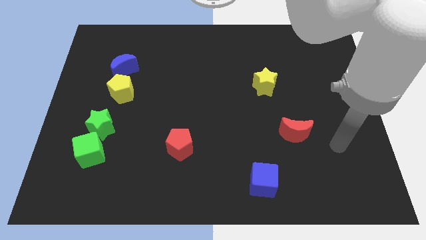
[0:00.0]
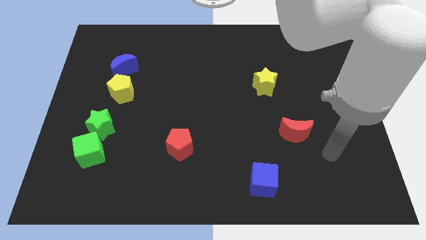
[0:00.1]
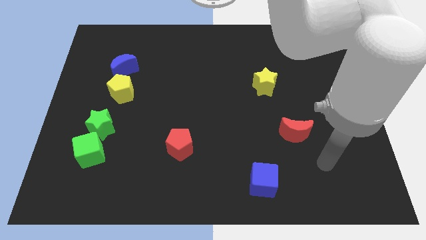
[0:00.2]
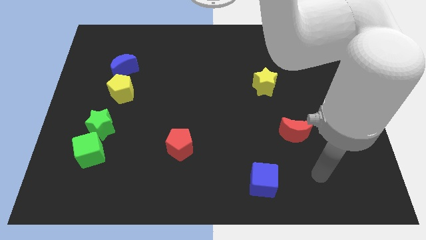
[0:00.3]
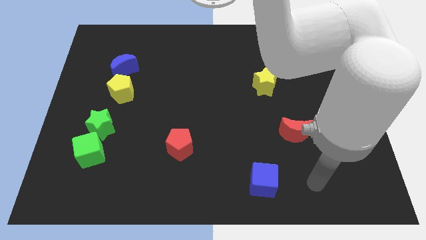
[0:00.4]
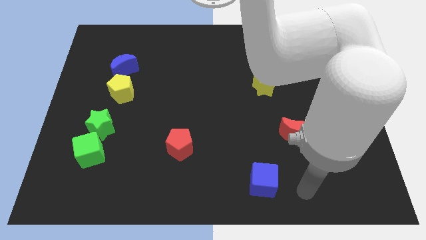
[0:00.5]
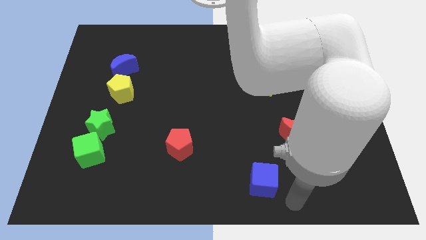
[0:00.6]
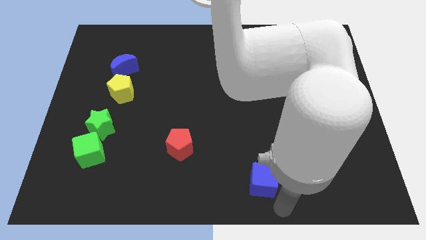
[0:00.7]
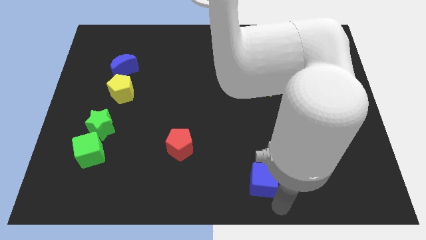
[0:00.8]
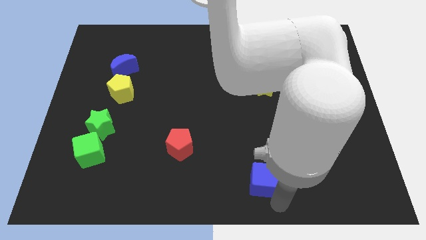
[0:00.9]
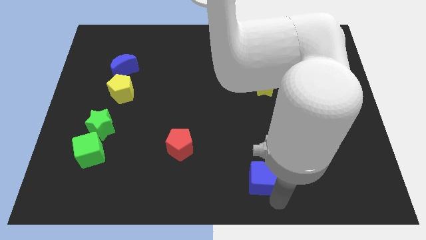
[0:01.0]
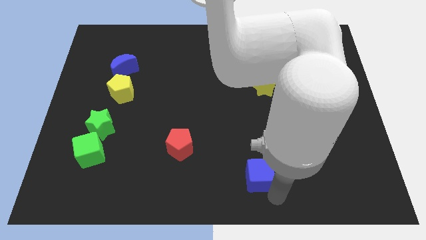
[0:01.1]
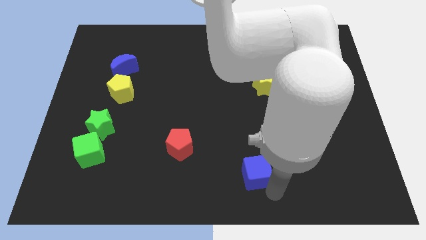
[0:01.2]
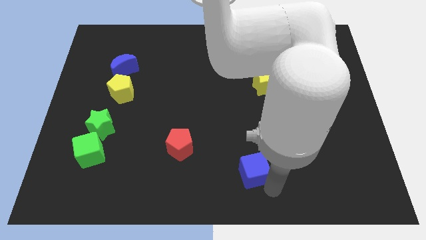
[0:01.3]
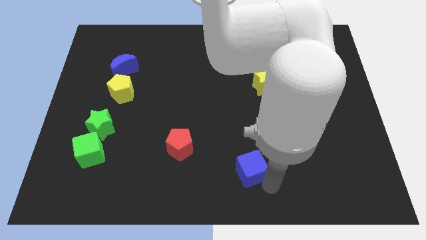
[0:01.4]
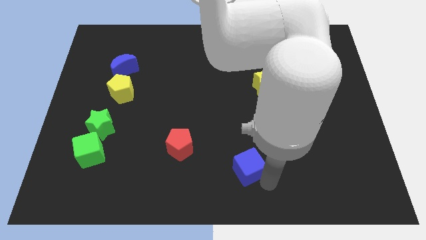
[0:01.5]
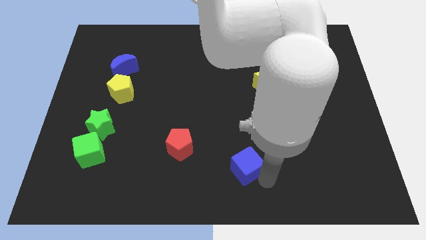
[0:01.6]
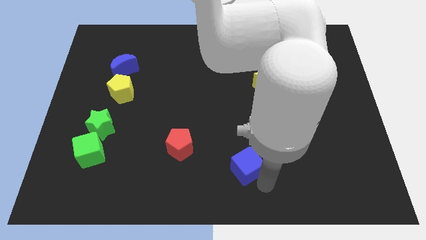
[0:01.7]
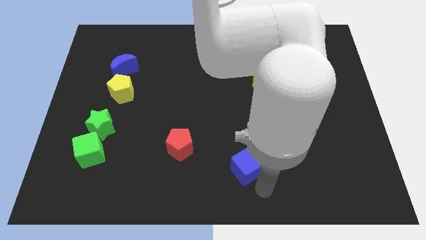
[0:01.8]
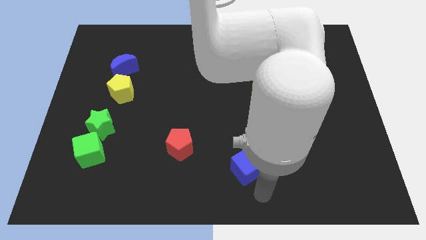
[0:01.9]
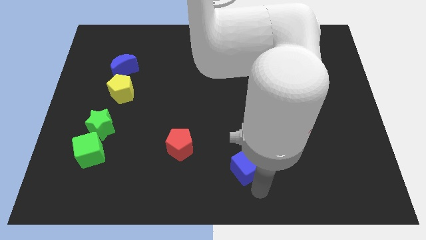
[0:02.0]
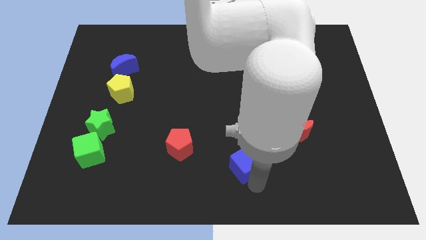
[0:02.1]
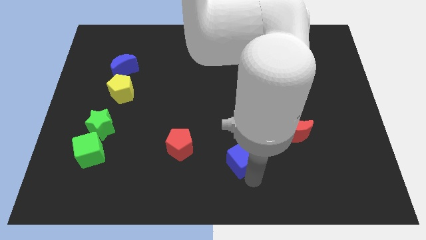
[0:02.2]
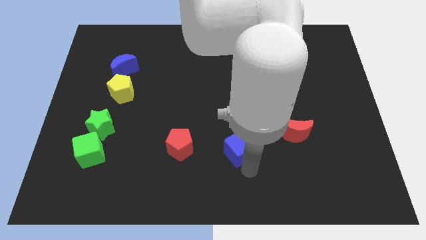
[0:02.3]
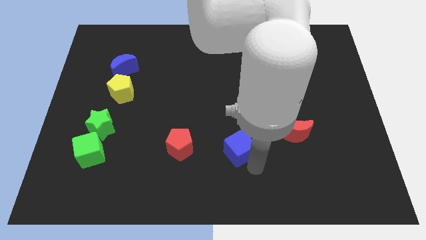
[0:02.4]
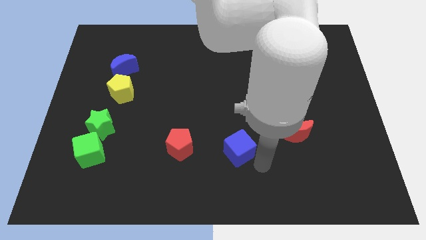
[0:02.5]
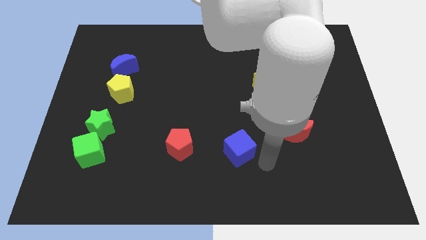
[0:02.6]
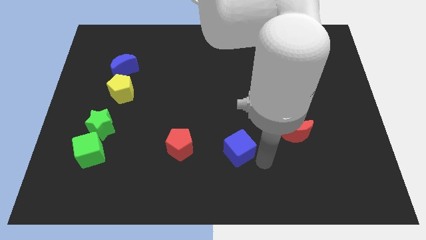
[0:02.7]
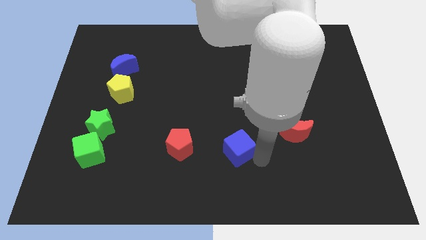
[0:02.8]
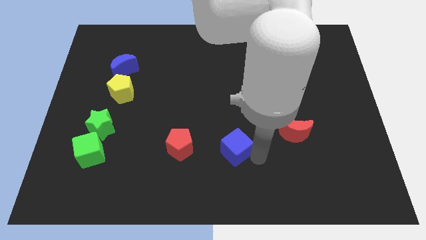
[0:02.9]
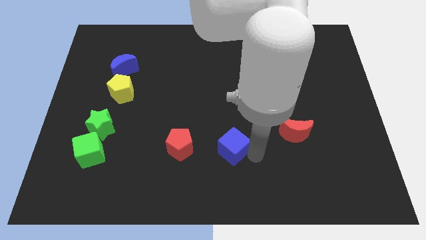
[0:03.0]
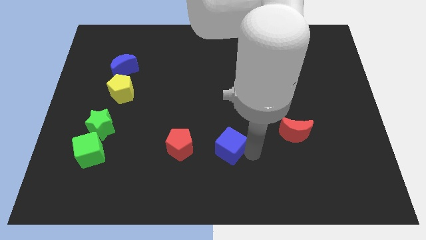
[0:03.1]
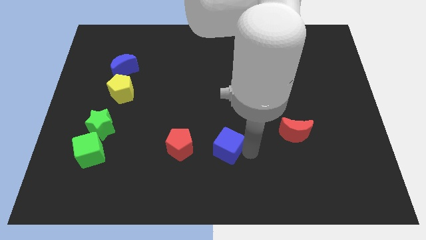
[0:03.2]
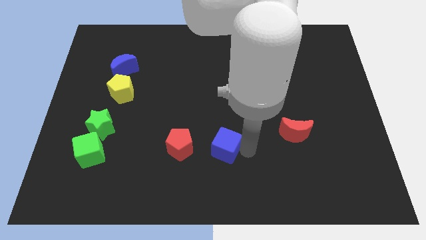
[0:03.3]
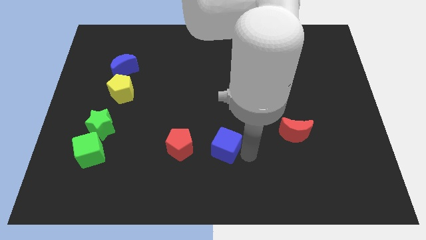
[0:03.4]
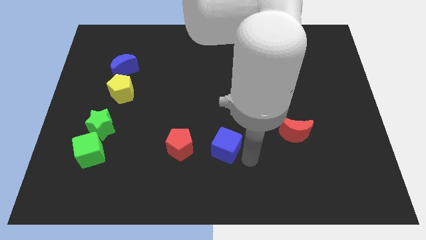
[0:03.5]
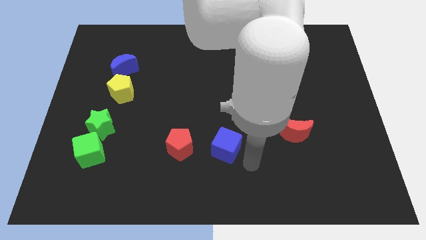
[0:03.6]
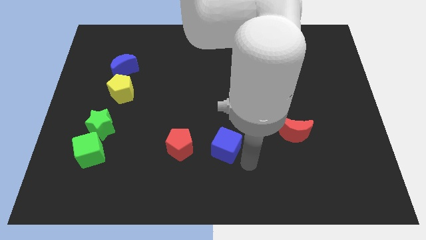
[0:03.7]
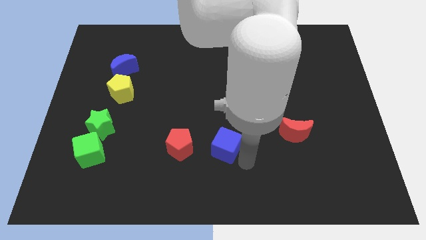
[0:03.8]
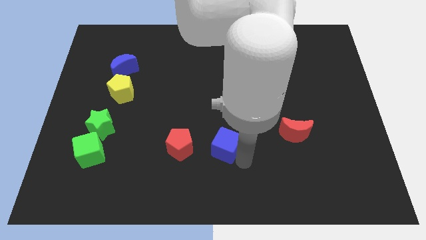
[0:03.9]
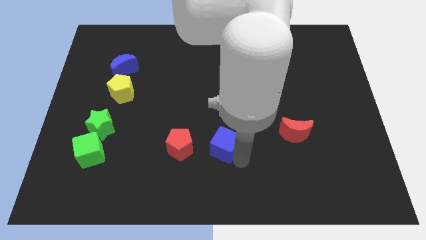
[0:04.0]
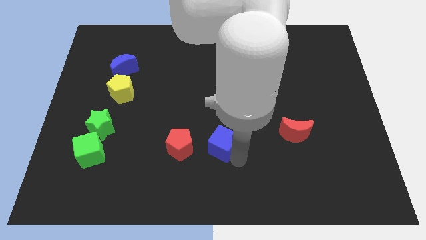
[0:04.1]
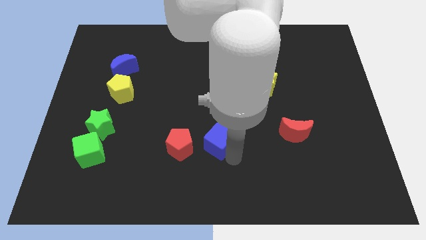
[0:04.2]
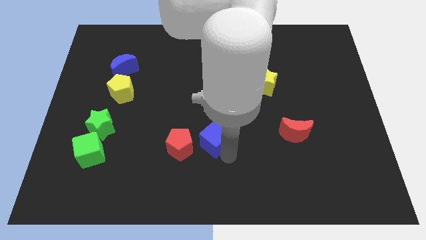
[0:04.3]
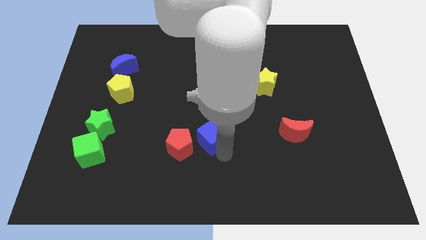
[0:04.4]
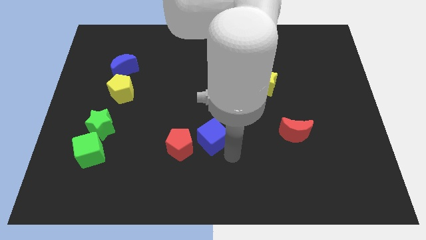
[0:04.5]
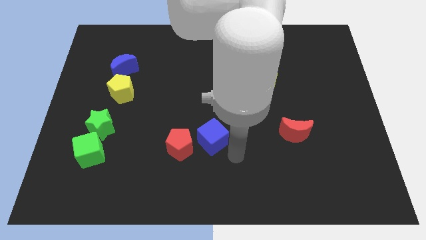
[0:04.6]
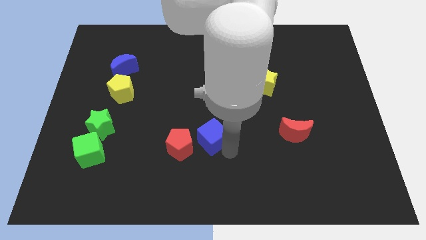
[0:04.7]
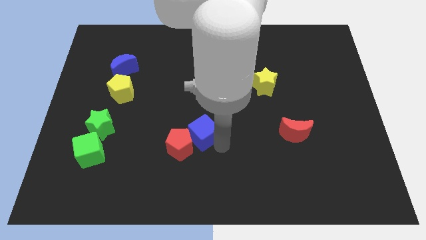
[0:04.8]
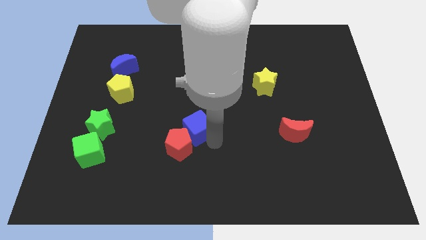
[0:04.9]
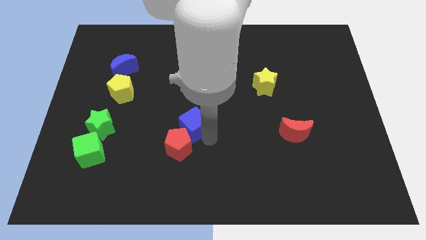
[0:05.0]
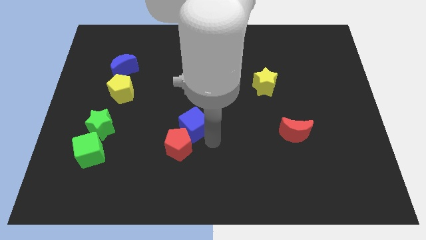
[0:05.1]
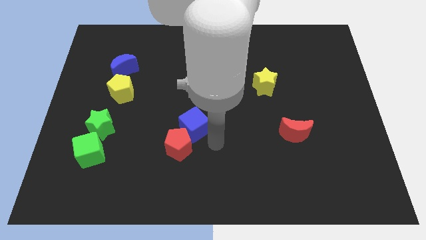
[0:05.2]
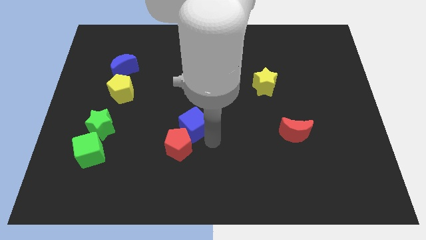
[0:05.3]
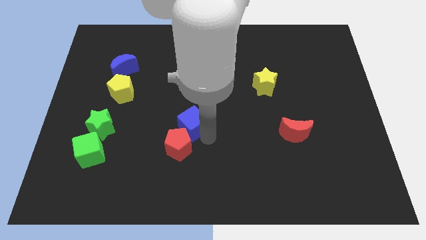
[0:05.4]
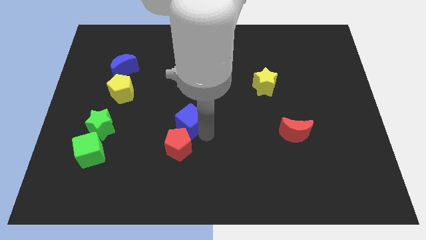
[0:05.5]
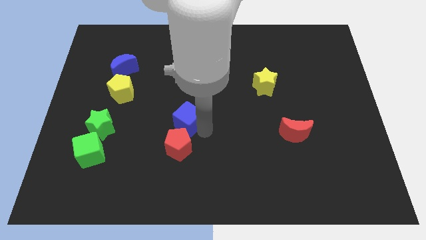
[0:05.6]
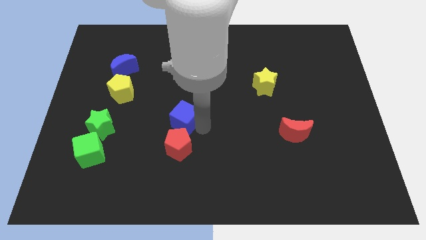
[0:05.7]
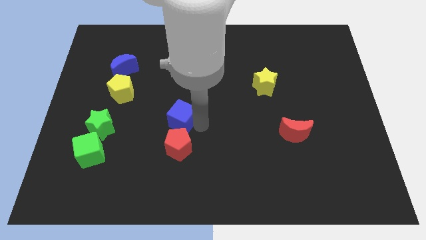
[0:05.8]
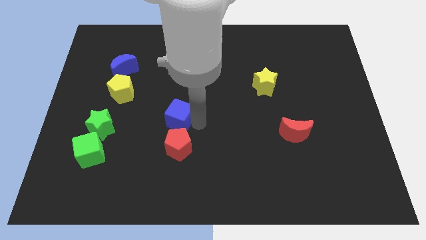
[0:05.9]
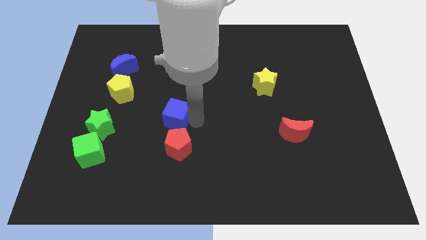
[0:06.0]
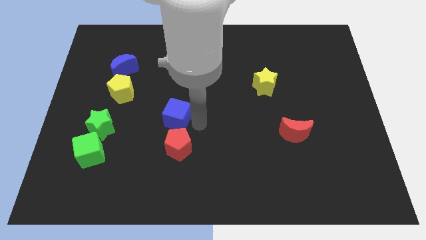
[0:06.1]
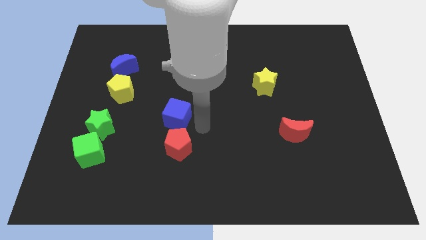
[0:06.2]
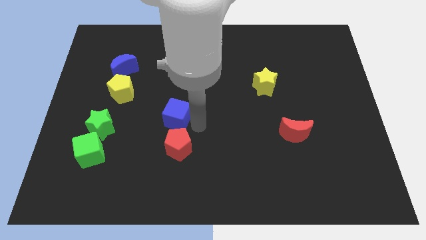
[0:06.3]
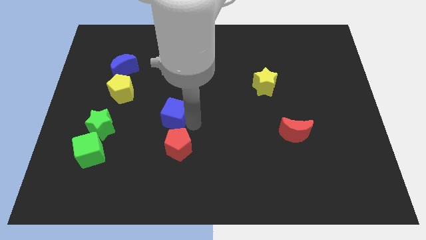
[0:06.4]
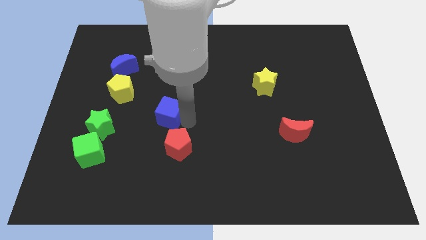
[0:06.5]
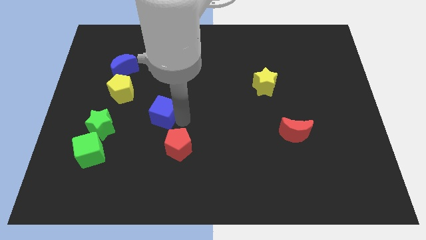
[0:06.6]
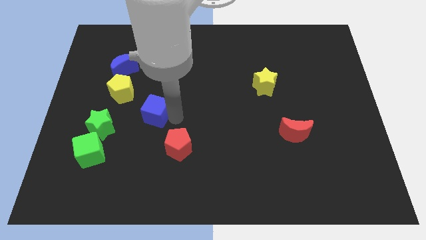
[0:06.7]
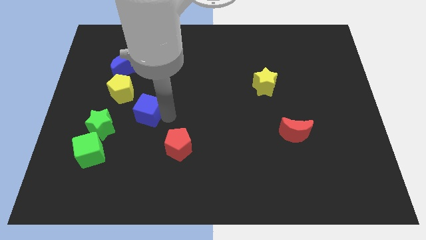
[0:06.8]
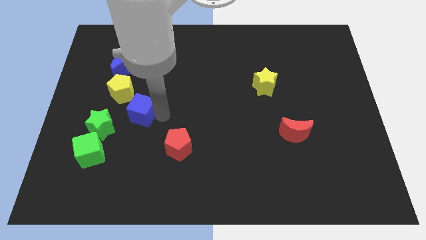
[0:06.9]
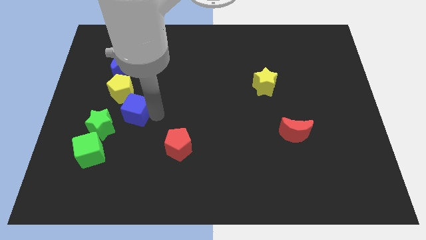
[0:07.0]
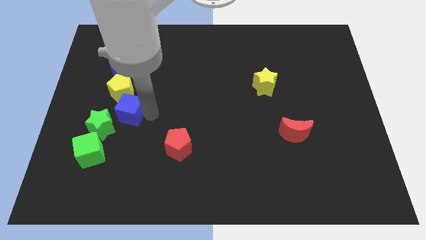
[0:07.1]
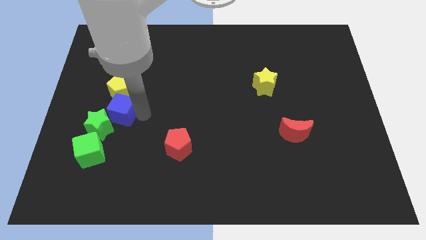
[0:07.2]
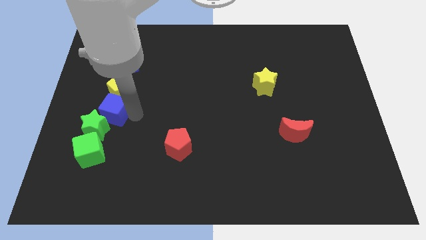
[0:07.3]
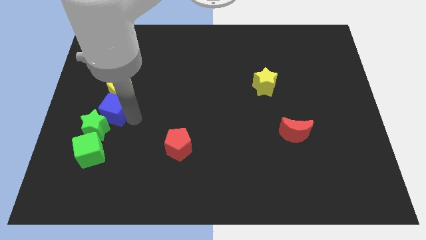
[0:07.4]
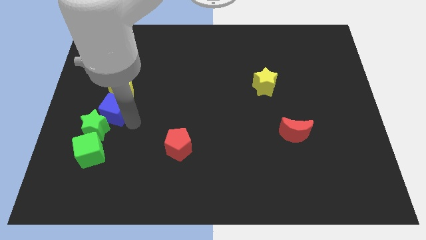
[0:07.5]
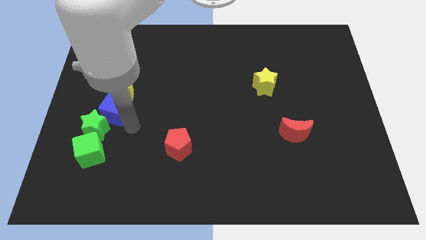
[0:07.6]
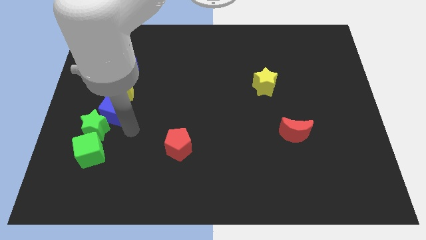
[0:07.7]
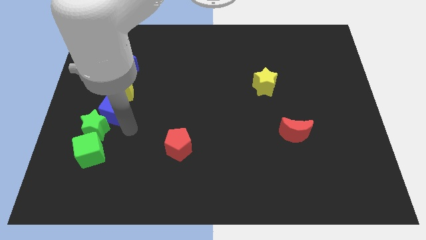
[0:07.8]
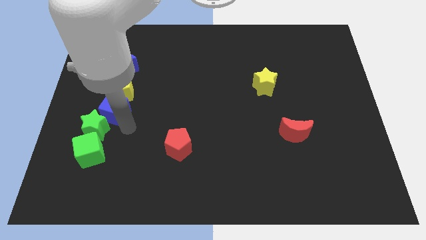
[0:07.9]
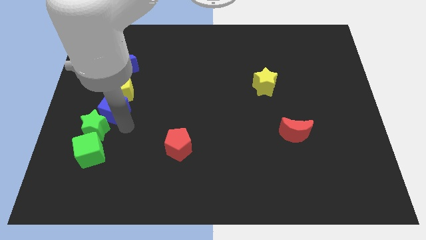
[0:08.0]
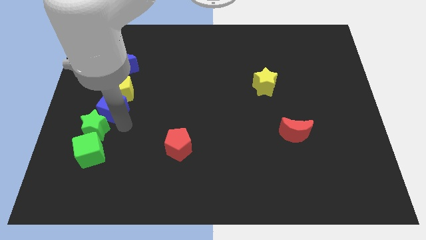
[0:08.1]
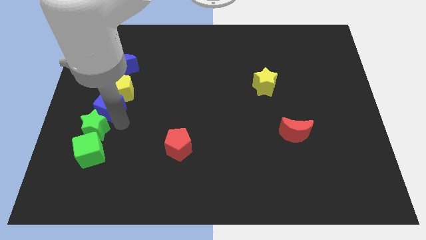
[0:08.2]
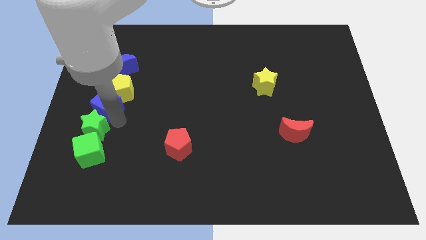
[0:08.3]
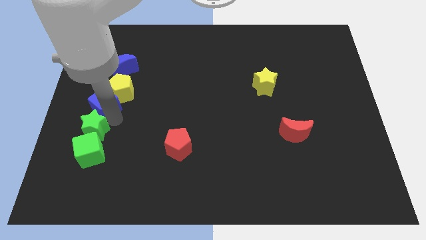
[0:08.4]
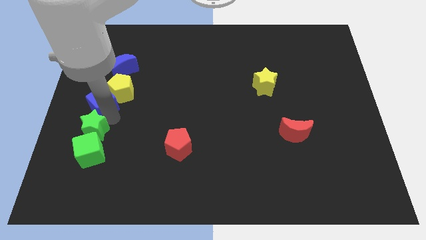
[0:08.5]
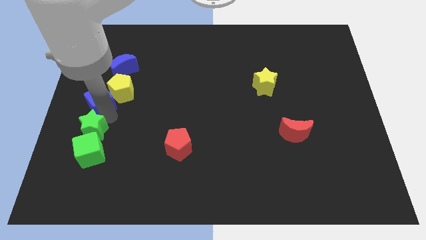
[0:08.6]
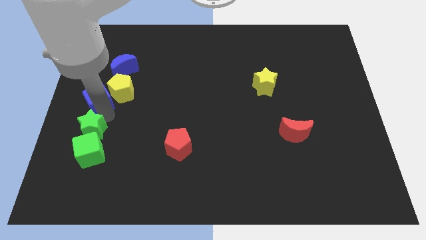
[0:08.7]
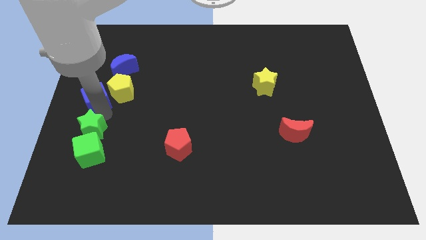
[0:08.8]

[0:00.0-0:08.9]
push the blue cube to the bottom left of the blue moon
